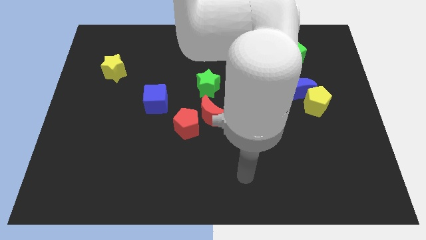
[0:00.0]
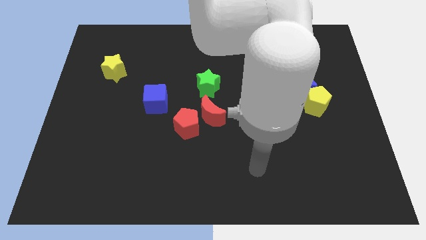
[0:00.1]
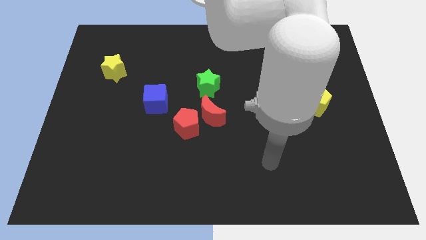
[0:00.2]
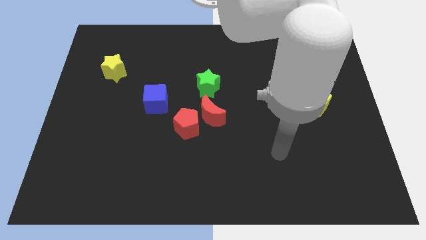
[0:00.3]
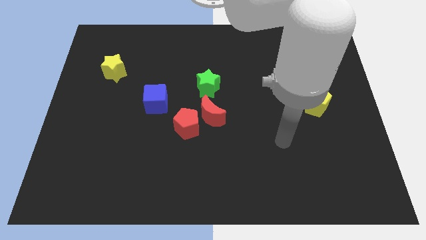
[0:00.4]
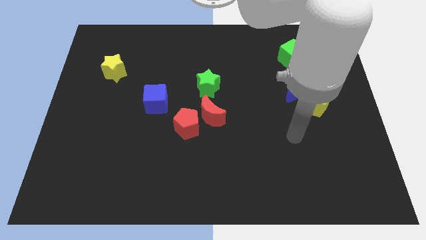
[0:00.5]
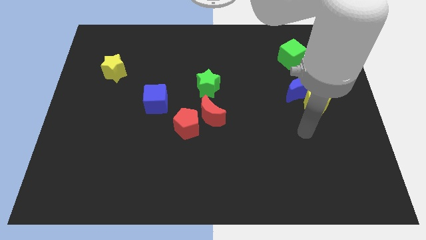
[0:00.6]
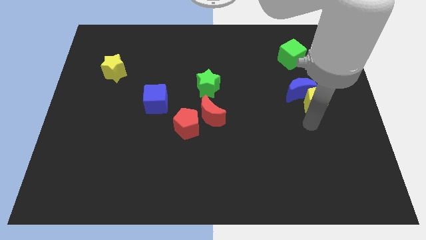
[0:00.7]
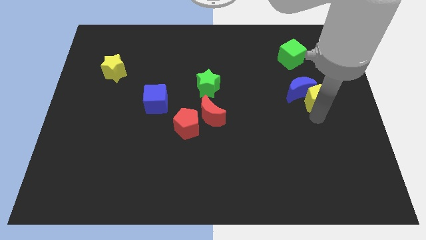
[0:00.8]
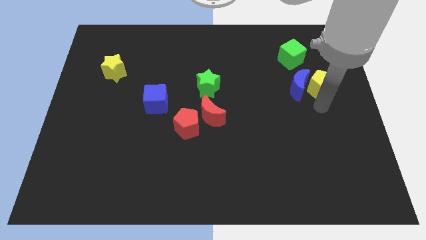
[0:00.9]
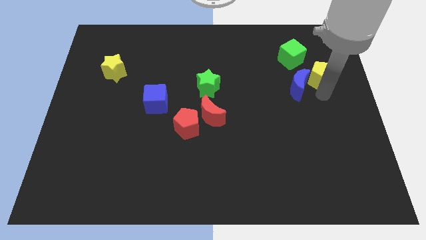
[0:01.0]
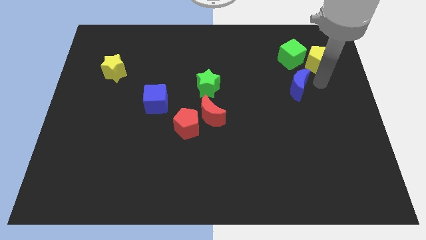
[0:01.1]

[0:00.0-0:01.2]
pull the blue moon apart from the yellow pentagon

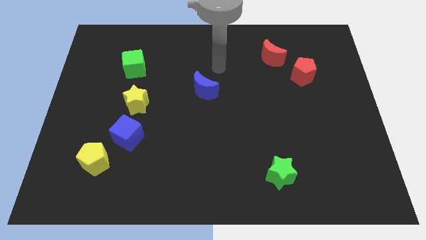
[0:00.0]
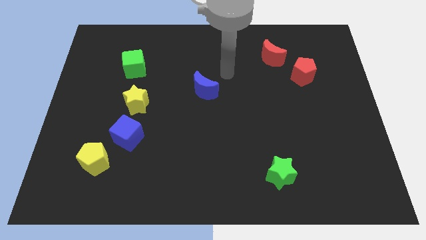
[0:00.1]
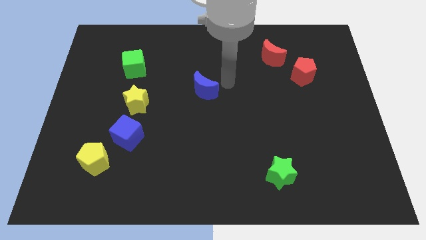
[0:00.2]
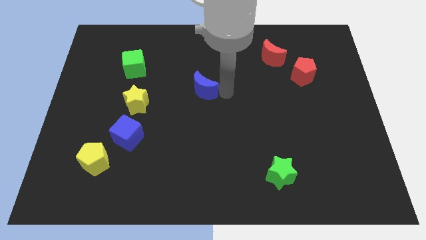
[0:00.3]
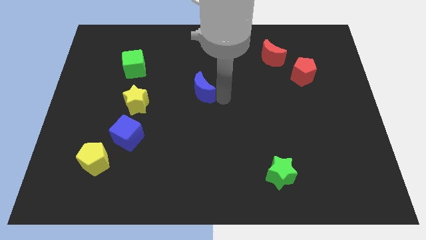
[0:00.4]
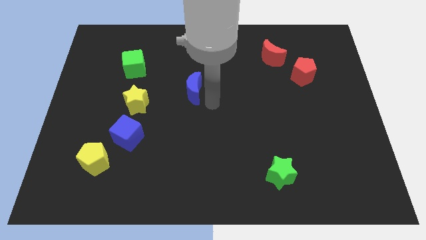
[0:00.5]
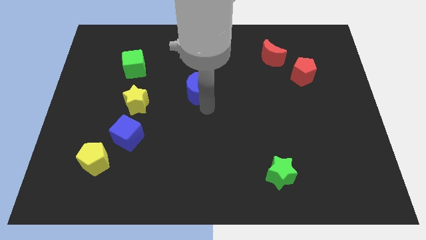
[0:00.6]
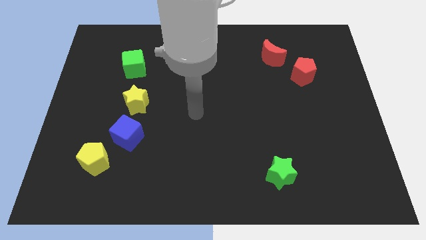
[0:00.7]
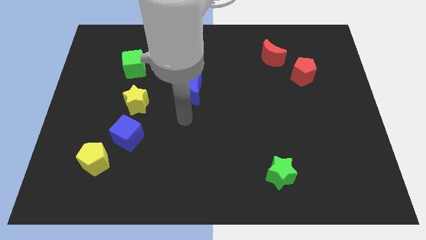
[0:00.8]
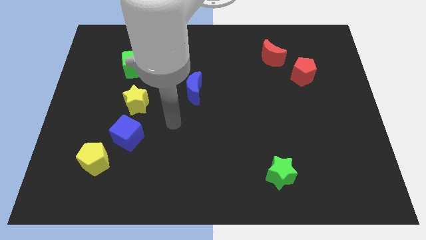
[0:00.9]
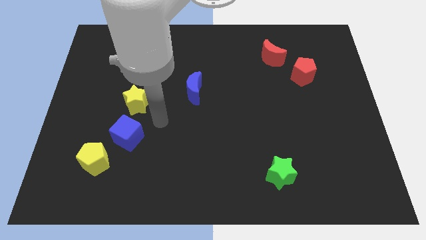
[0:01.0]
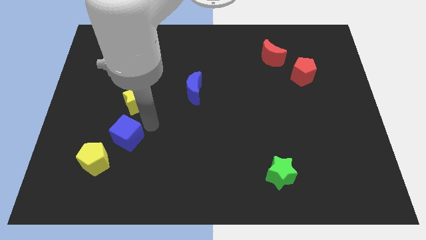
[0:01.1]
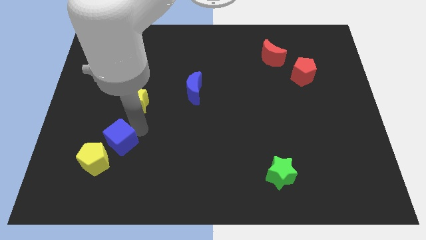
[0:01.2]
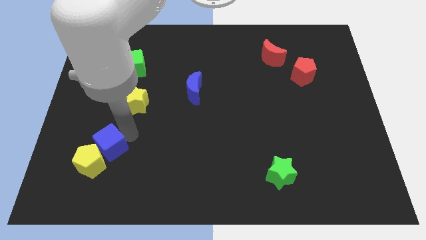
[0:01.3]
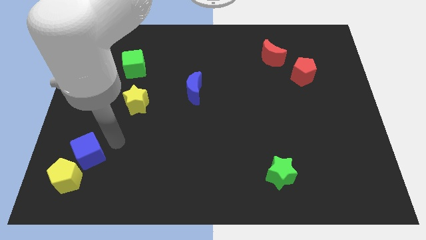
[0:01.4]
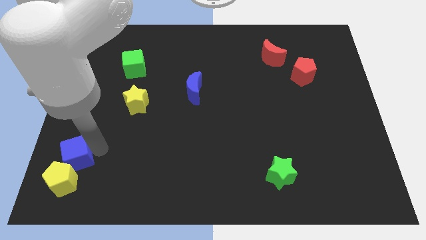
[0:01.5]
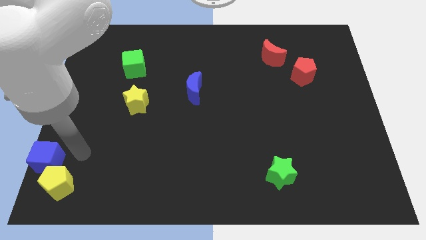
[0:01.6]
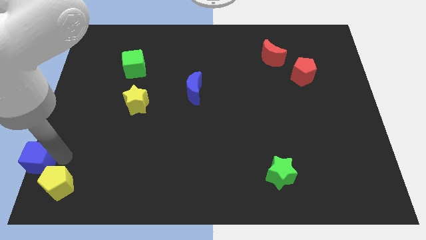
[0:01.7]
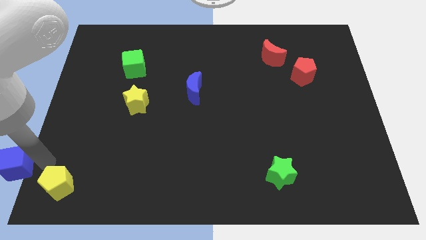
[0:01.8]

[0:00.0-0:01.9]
separate the yellow pentagon from the blue cube

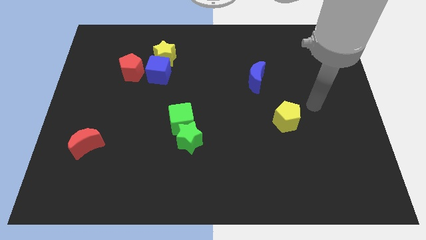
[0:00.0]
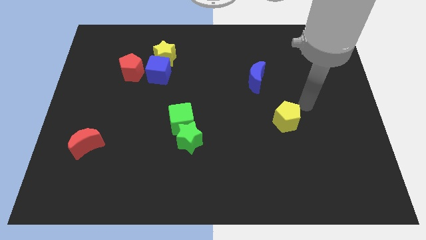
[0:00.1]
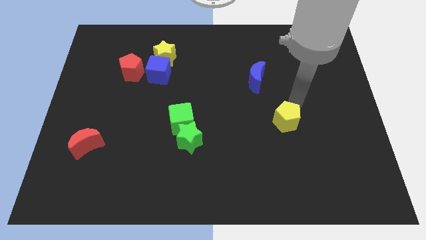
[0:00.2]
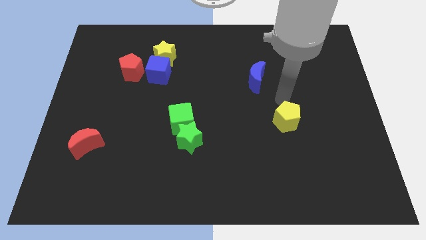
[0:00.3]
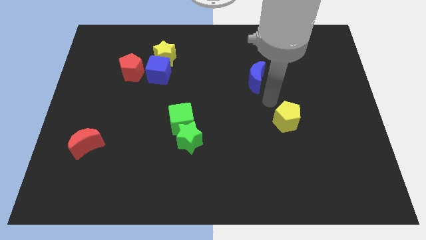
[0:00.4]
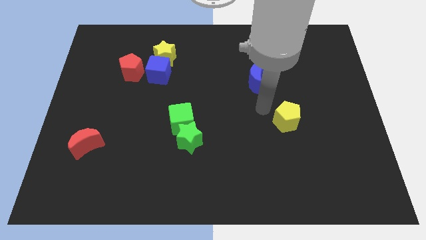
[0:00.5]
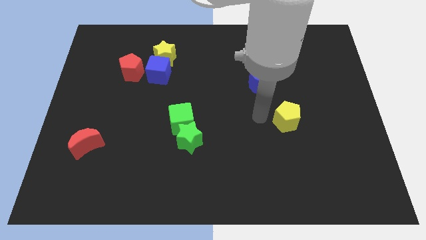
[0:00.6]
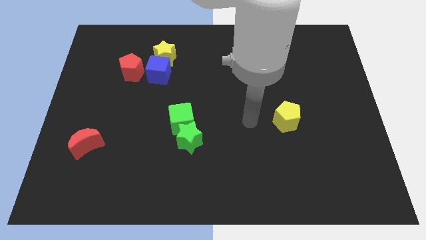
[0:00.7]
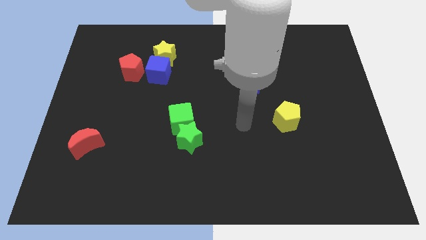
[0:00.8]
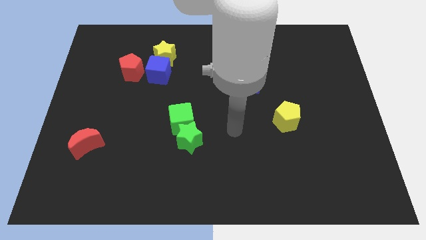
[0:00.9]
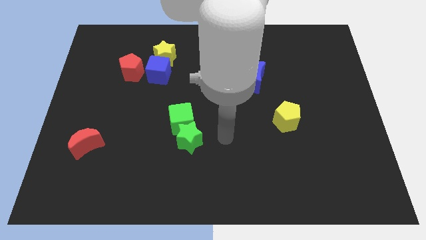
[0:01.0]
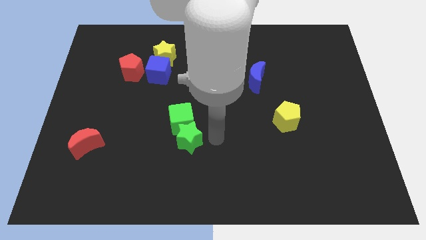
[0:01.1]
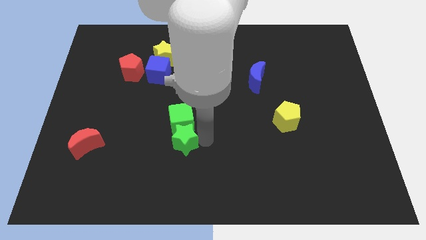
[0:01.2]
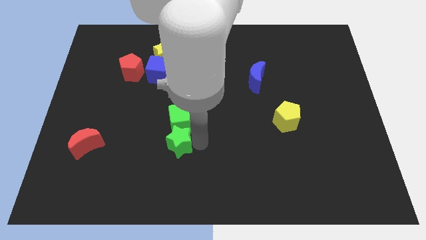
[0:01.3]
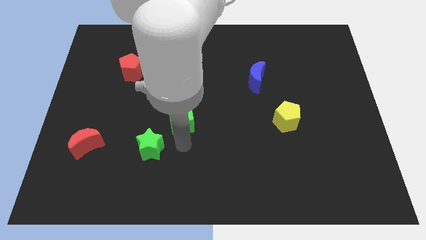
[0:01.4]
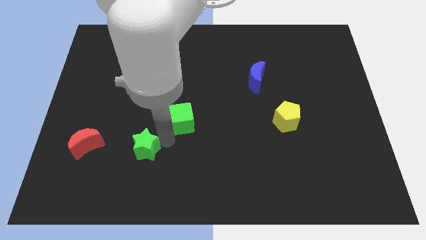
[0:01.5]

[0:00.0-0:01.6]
separate the green cube from the green star

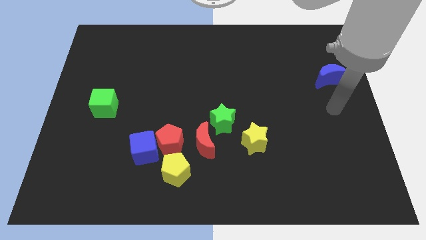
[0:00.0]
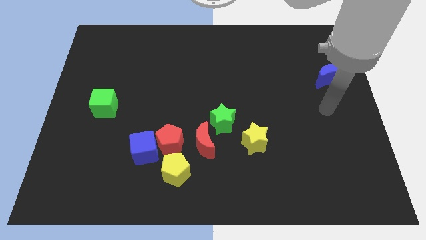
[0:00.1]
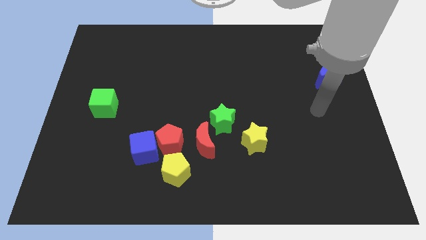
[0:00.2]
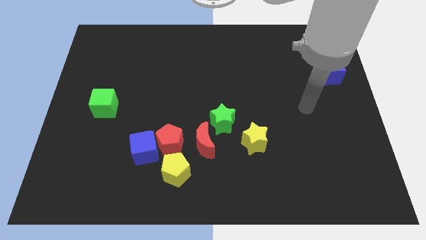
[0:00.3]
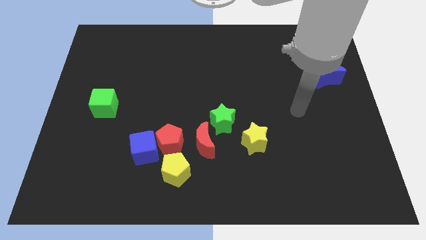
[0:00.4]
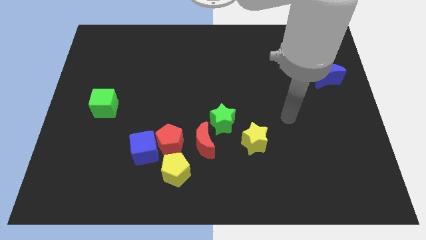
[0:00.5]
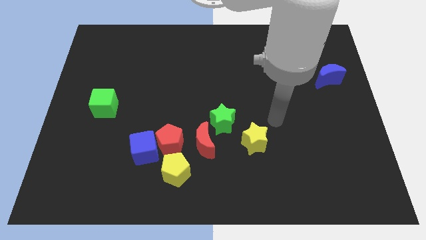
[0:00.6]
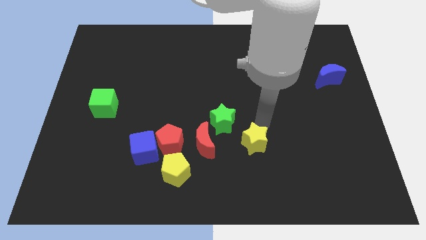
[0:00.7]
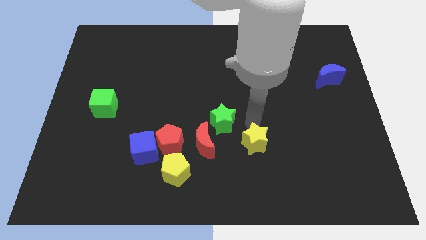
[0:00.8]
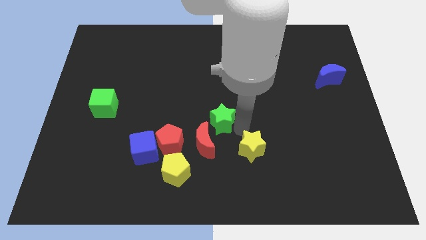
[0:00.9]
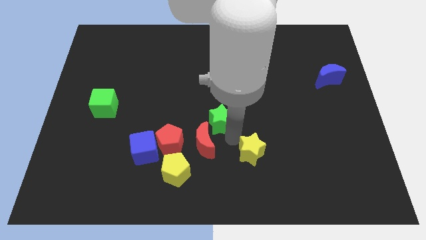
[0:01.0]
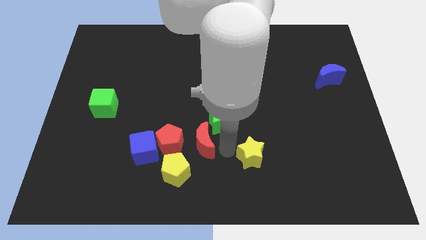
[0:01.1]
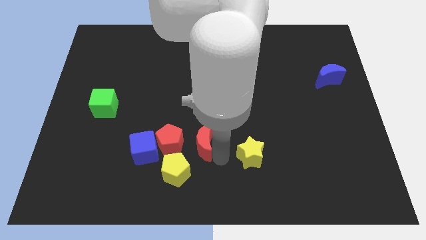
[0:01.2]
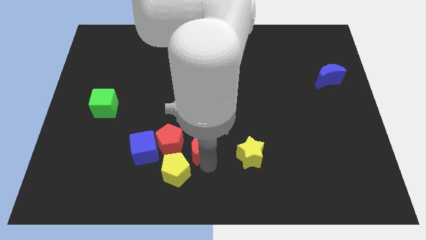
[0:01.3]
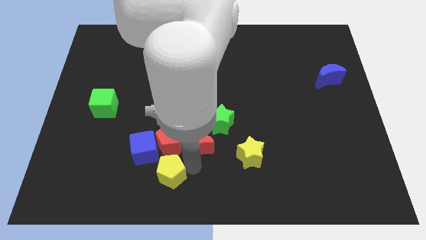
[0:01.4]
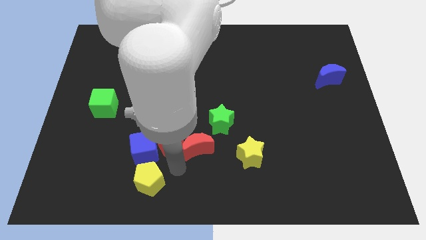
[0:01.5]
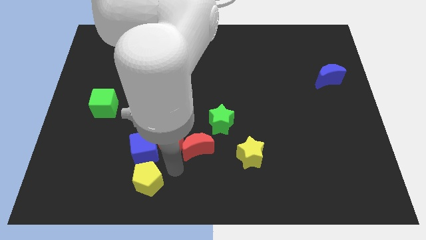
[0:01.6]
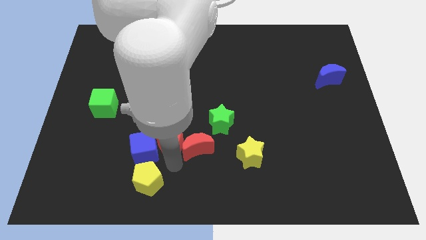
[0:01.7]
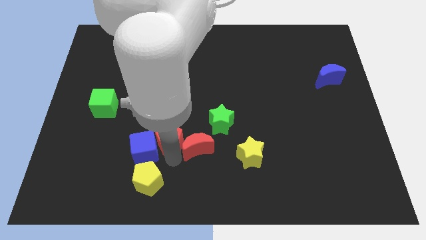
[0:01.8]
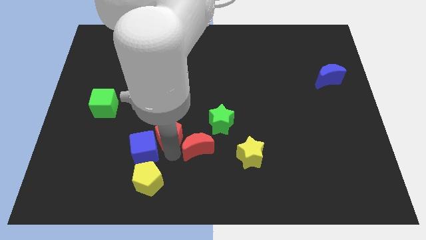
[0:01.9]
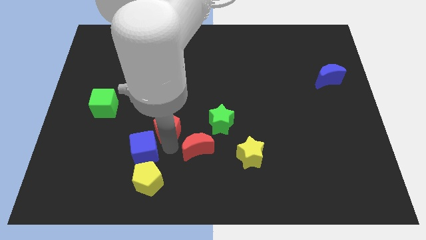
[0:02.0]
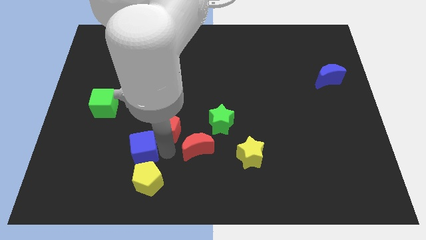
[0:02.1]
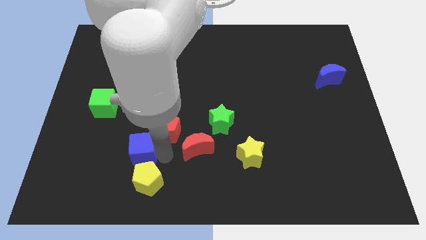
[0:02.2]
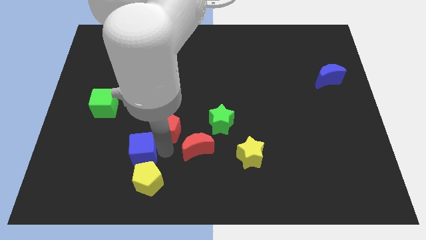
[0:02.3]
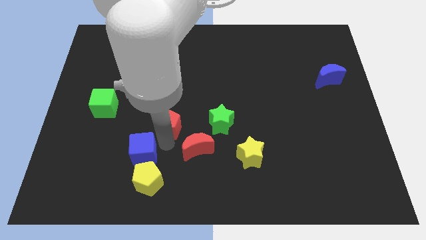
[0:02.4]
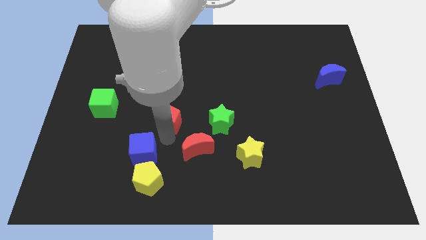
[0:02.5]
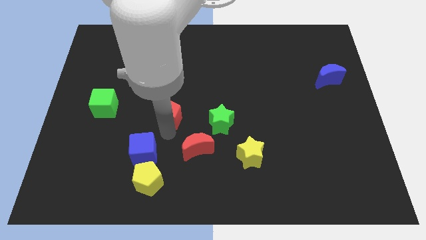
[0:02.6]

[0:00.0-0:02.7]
separate the red pentagon from the blue cube, yellow pentagon, and red moon

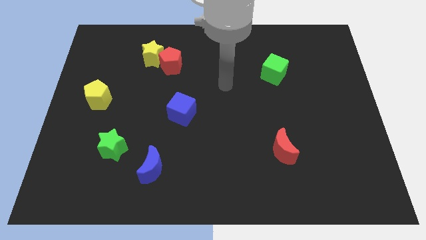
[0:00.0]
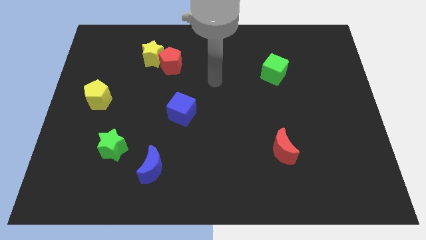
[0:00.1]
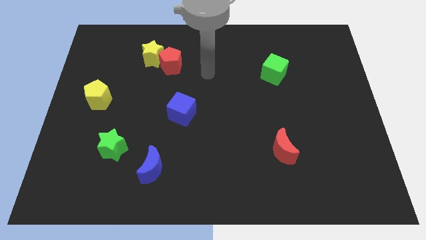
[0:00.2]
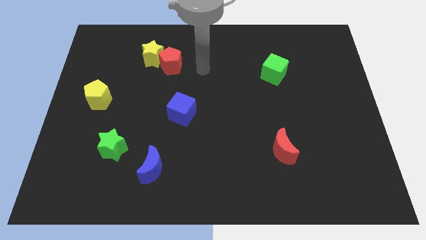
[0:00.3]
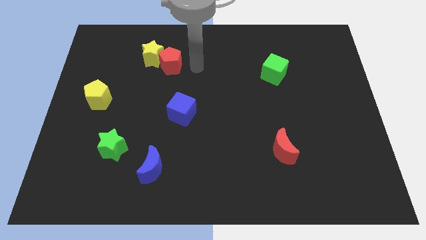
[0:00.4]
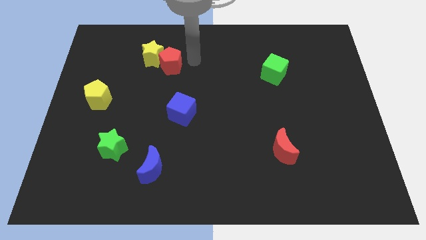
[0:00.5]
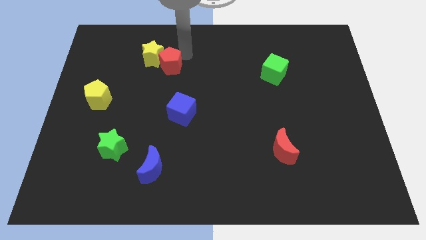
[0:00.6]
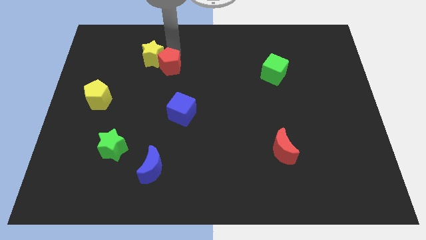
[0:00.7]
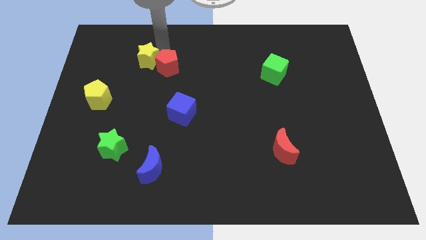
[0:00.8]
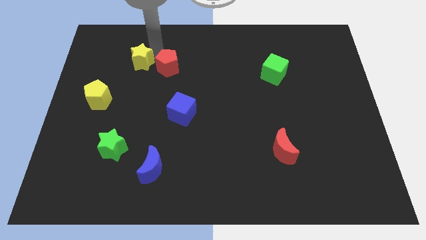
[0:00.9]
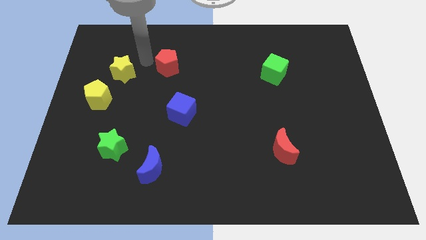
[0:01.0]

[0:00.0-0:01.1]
pull the red pentagon apart from the yellow star

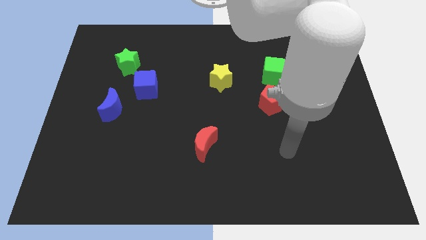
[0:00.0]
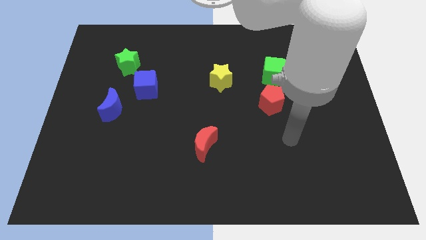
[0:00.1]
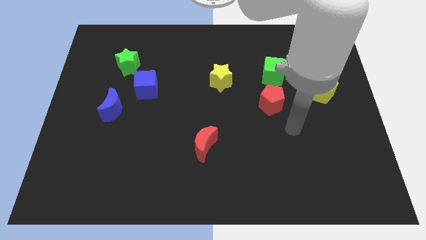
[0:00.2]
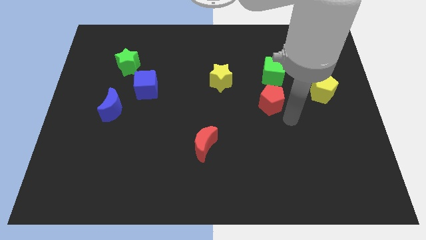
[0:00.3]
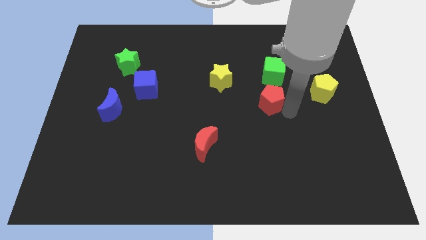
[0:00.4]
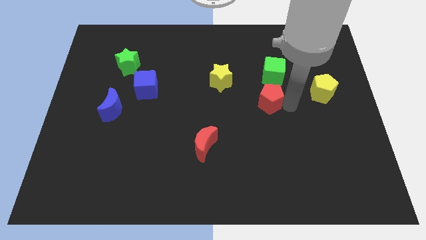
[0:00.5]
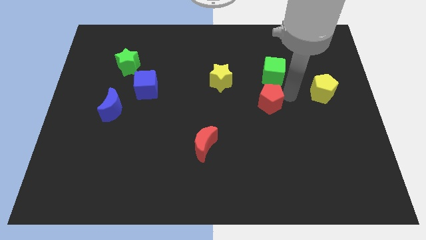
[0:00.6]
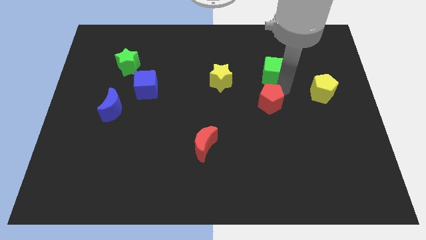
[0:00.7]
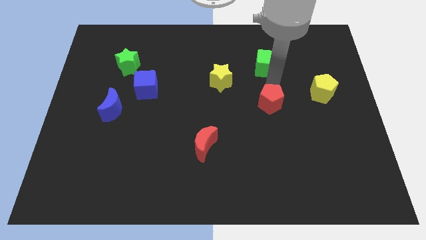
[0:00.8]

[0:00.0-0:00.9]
move the red pentagon away from the green cube
